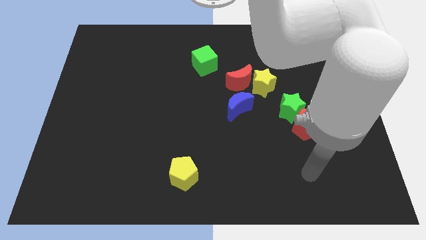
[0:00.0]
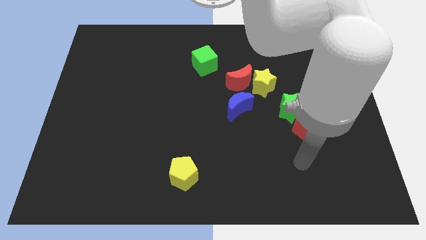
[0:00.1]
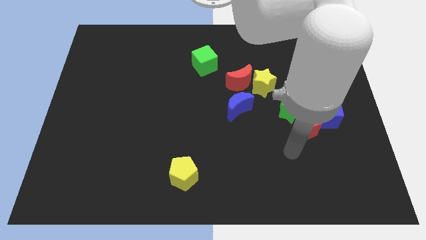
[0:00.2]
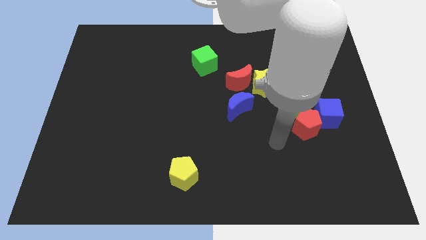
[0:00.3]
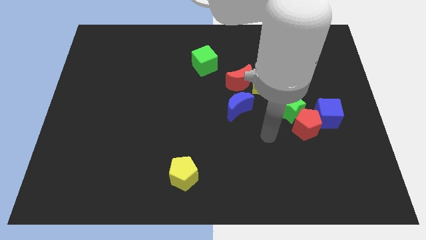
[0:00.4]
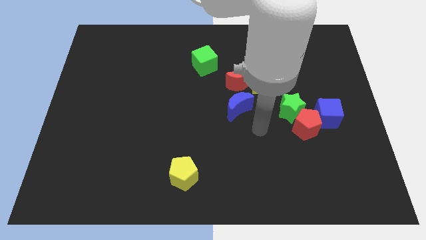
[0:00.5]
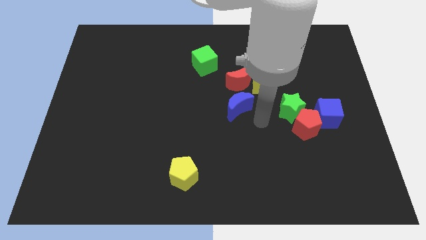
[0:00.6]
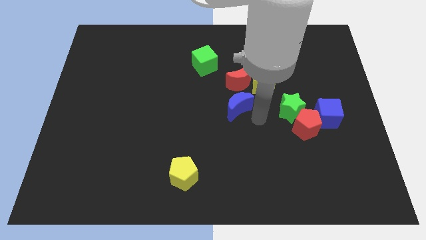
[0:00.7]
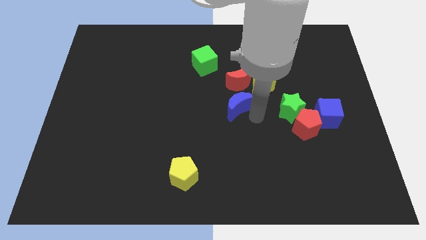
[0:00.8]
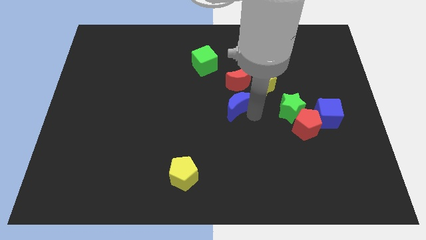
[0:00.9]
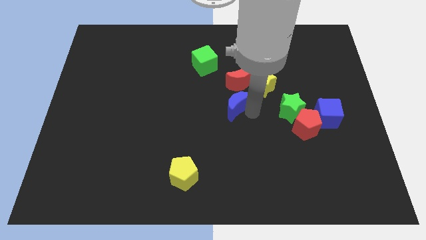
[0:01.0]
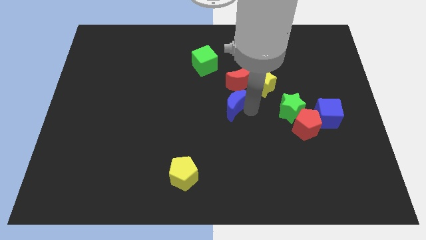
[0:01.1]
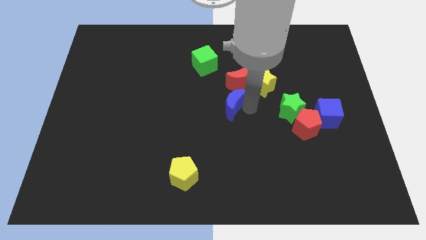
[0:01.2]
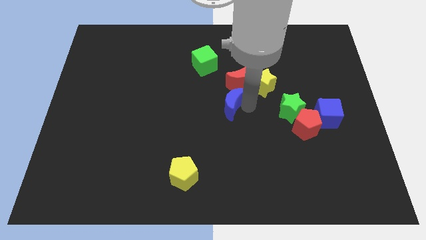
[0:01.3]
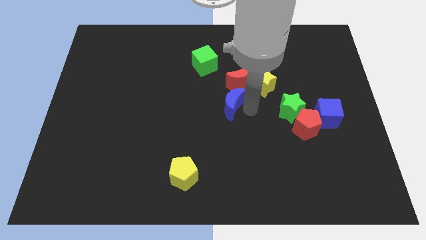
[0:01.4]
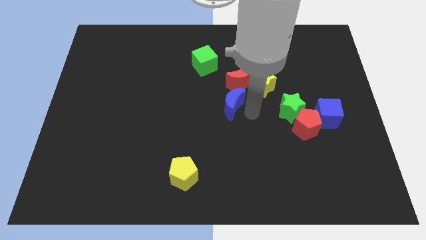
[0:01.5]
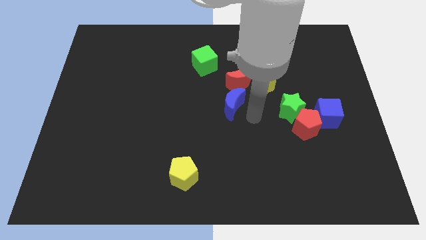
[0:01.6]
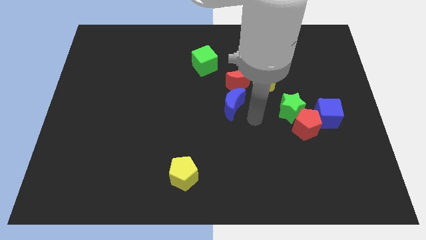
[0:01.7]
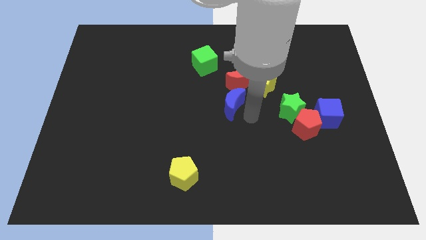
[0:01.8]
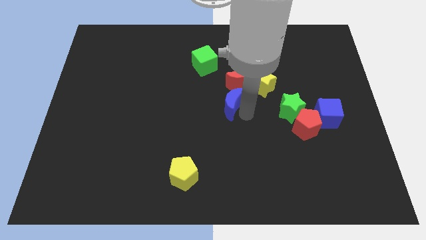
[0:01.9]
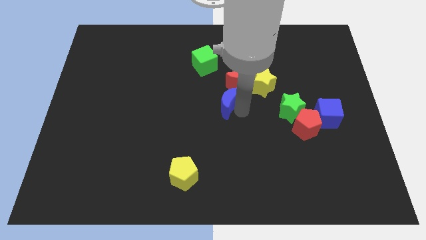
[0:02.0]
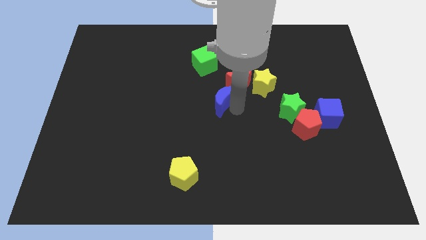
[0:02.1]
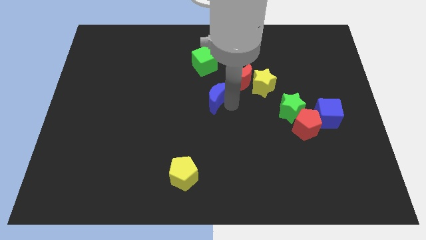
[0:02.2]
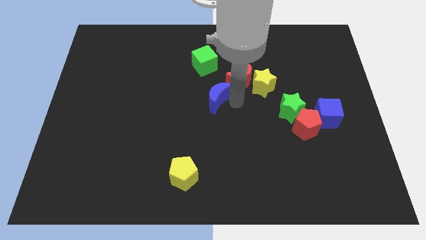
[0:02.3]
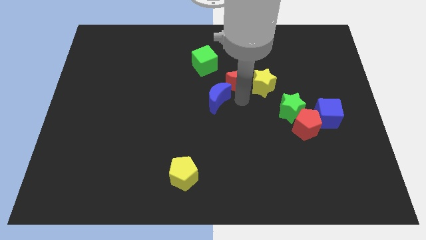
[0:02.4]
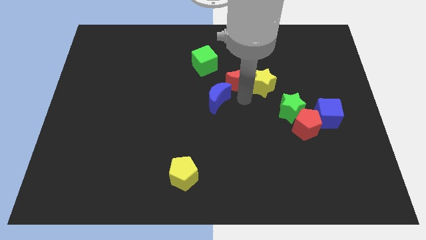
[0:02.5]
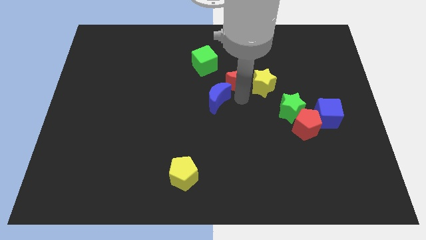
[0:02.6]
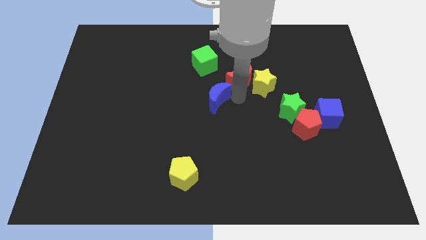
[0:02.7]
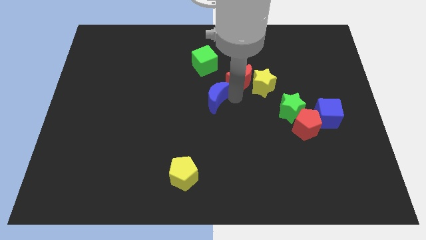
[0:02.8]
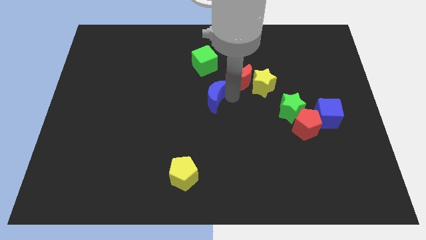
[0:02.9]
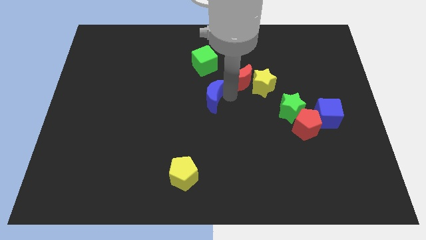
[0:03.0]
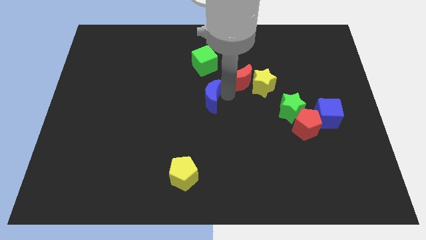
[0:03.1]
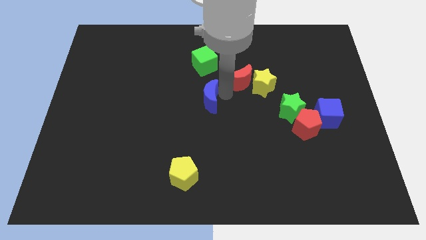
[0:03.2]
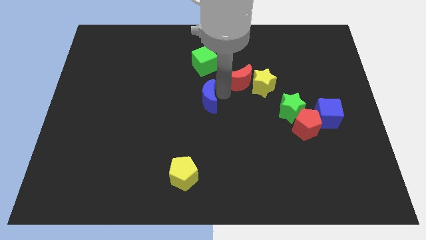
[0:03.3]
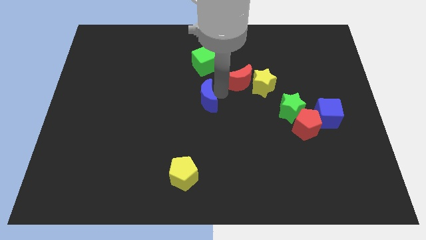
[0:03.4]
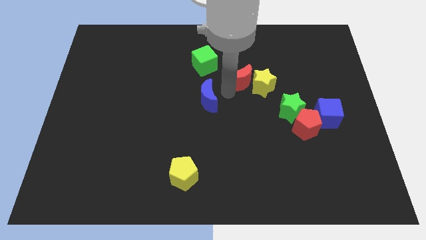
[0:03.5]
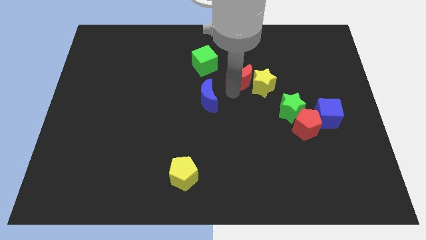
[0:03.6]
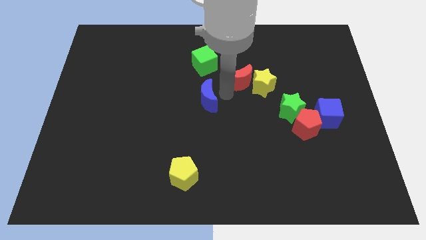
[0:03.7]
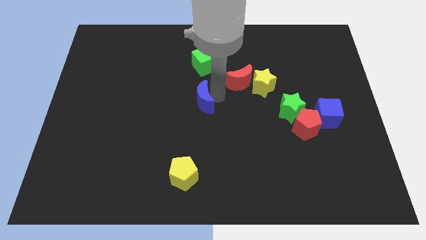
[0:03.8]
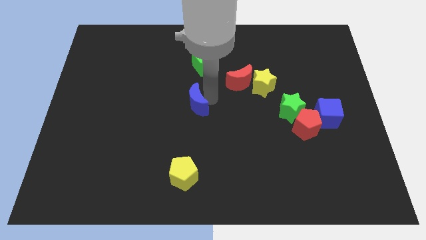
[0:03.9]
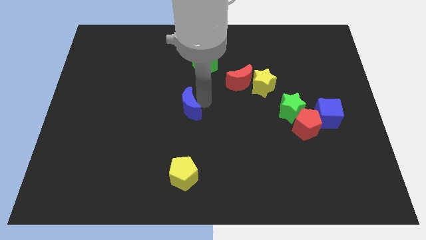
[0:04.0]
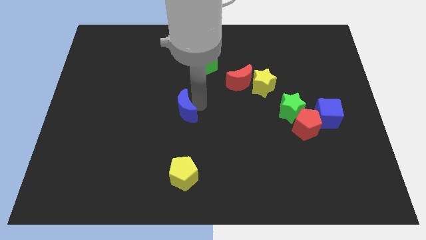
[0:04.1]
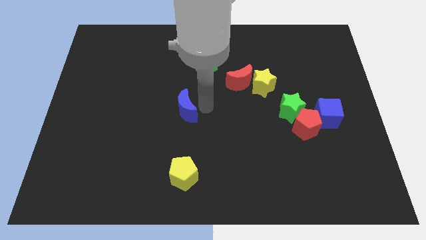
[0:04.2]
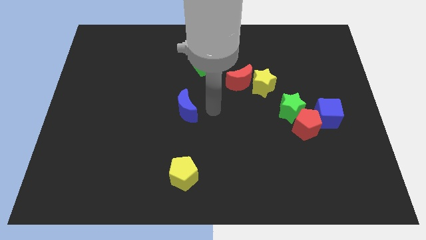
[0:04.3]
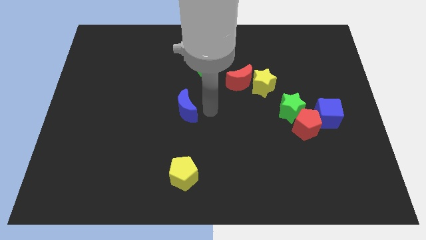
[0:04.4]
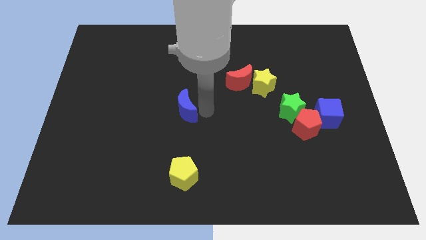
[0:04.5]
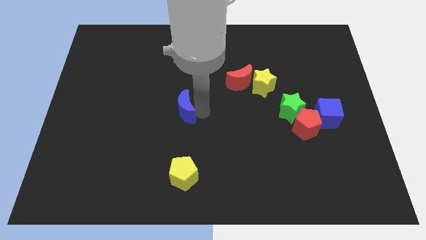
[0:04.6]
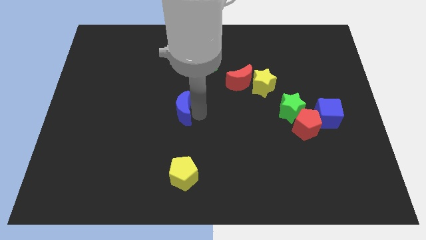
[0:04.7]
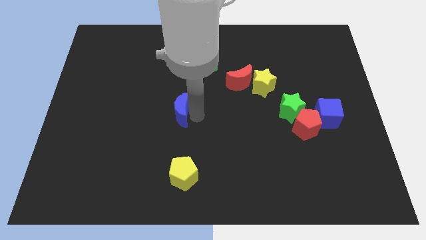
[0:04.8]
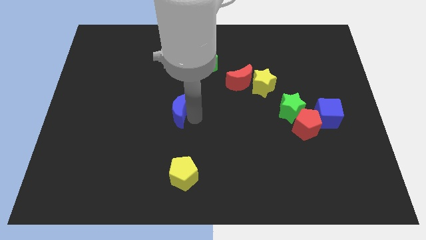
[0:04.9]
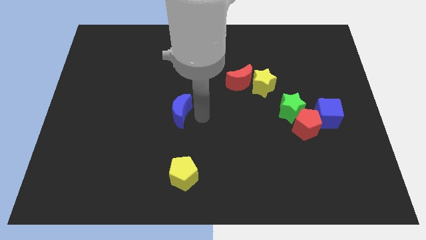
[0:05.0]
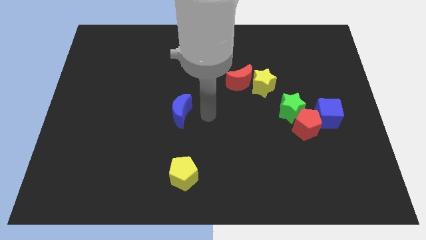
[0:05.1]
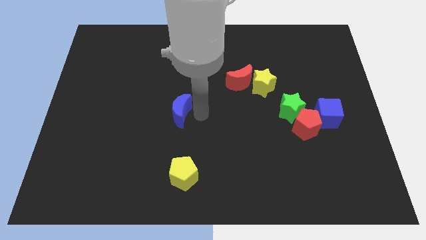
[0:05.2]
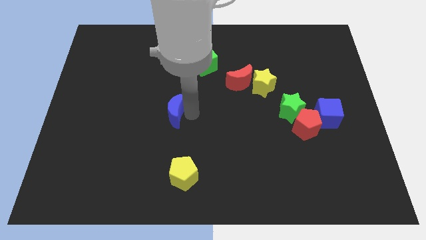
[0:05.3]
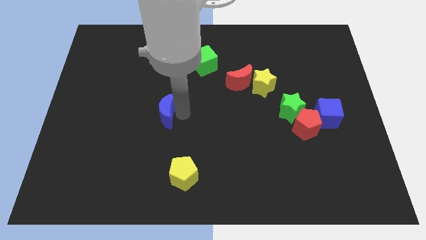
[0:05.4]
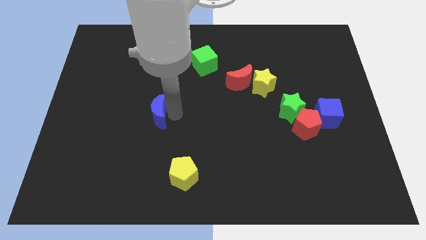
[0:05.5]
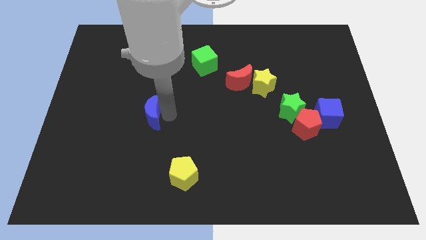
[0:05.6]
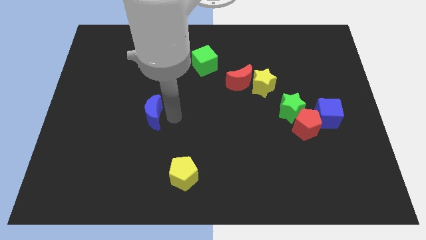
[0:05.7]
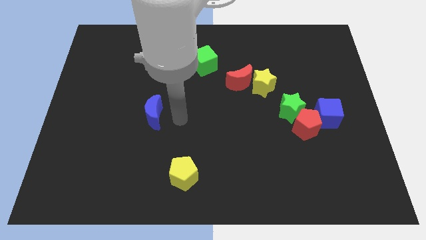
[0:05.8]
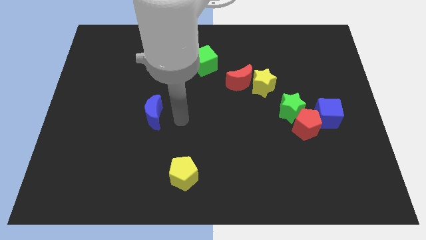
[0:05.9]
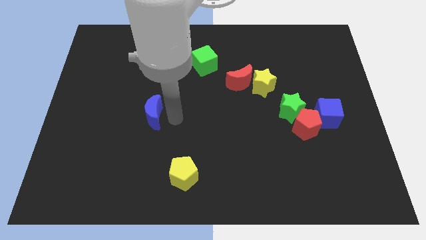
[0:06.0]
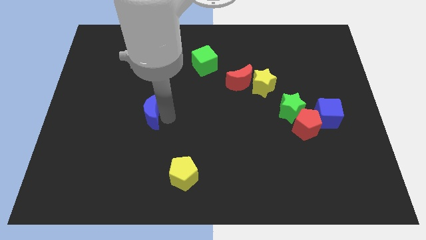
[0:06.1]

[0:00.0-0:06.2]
push the blue moon left

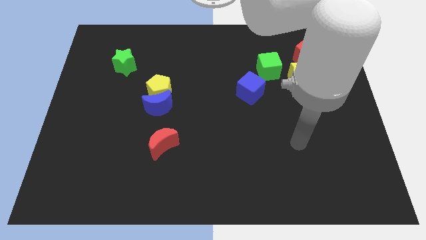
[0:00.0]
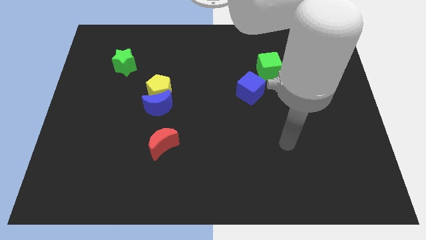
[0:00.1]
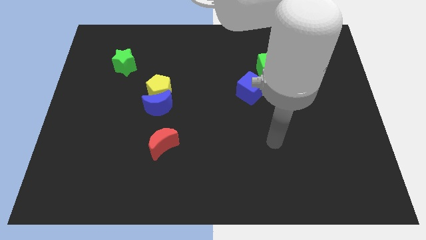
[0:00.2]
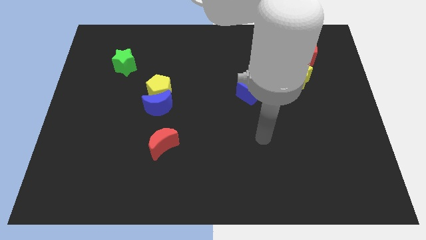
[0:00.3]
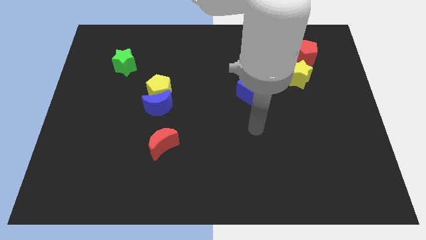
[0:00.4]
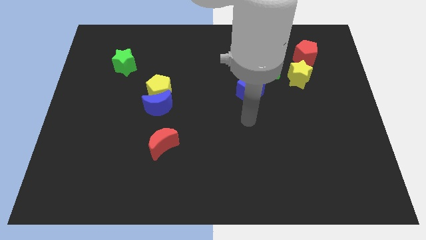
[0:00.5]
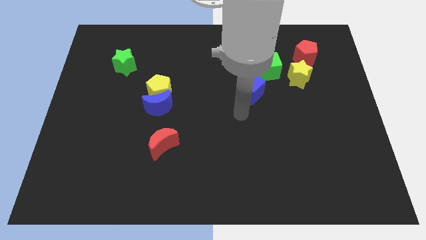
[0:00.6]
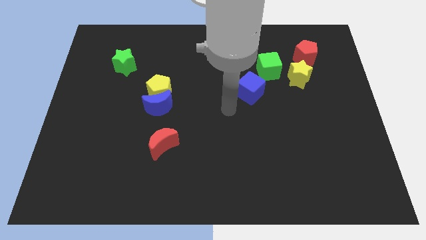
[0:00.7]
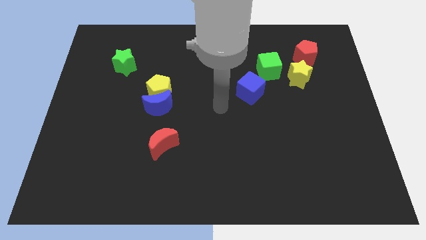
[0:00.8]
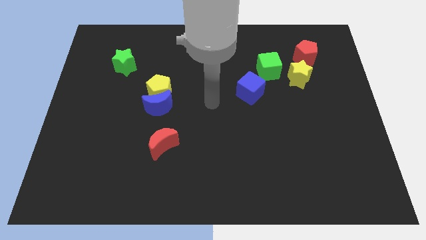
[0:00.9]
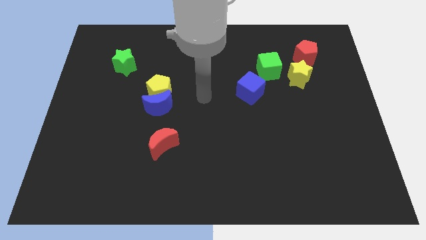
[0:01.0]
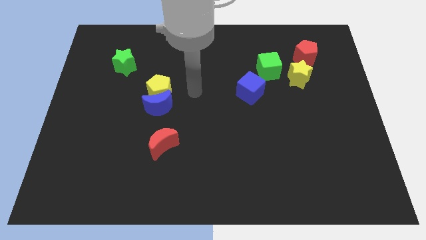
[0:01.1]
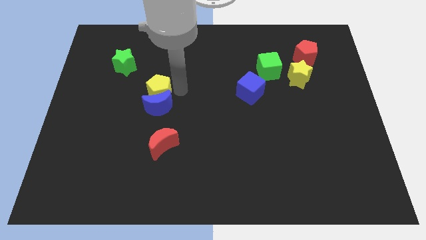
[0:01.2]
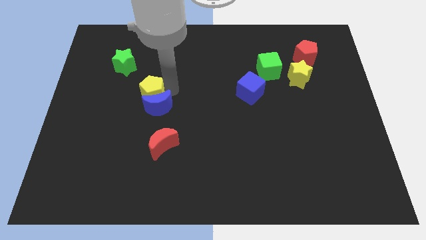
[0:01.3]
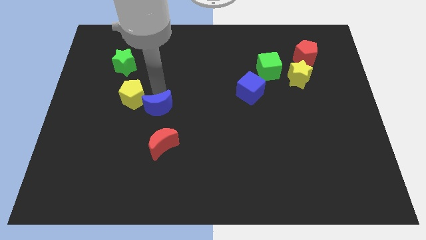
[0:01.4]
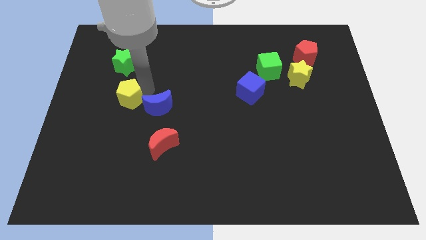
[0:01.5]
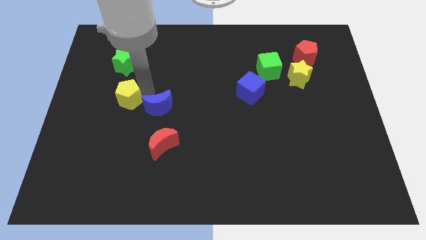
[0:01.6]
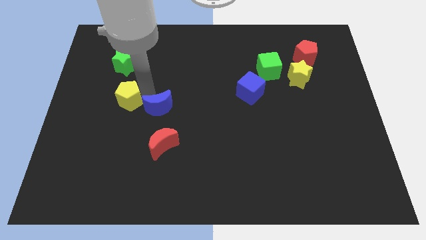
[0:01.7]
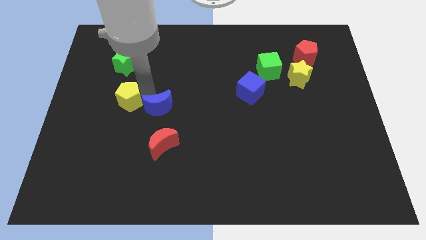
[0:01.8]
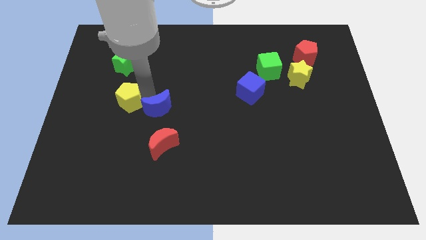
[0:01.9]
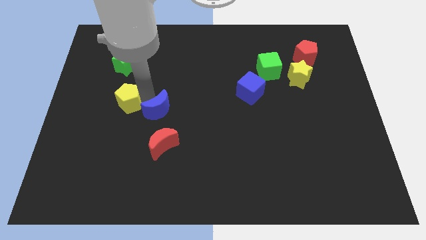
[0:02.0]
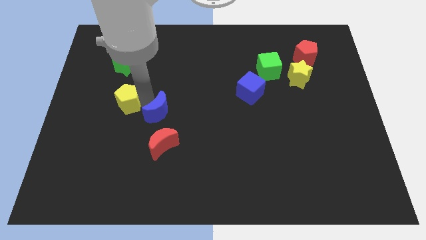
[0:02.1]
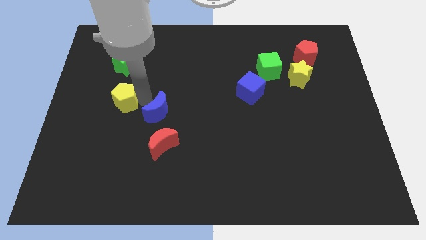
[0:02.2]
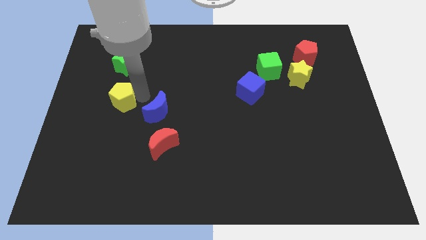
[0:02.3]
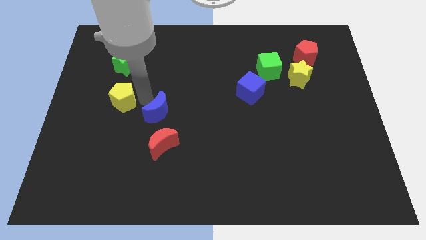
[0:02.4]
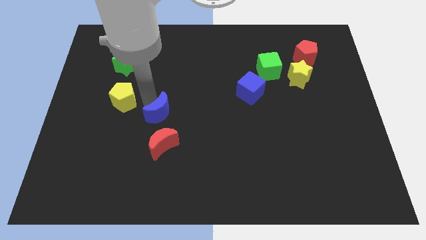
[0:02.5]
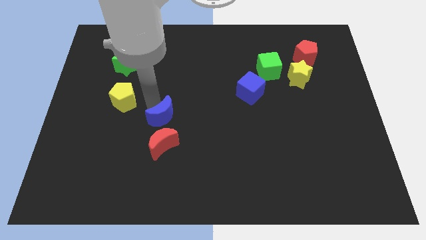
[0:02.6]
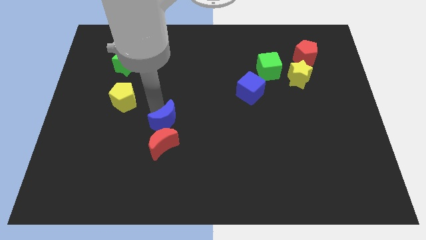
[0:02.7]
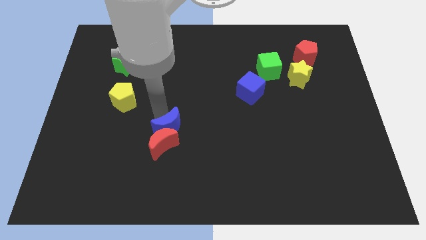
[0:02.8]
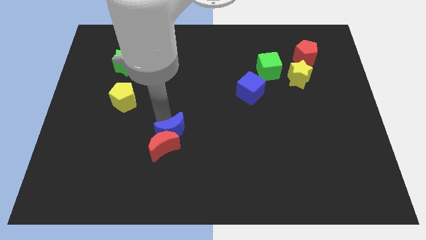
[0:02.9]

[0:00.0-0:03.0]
slightly push the blue moon down and right
